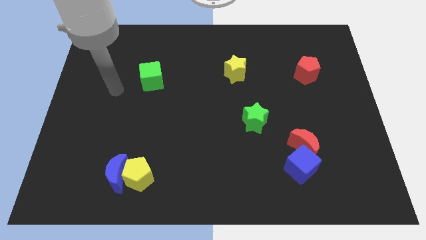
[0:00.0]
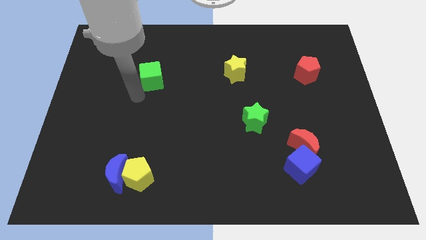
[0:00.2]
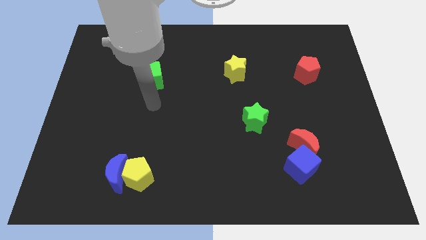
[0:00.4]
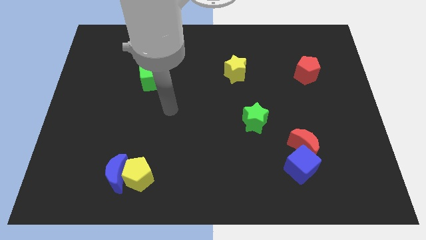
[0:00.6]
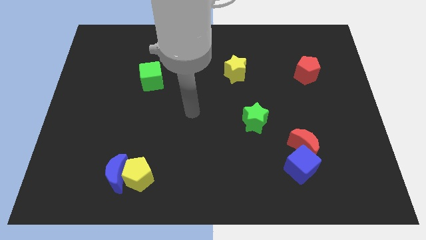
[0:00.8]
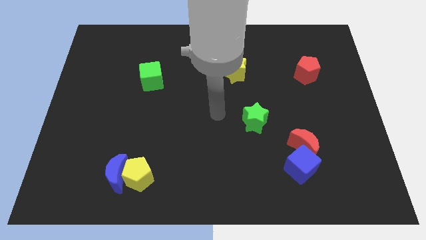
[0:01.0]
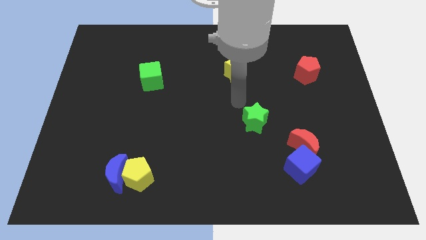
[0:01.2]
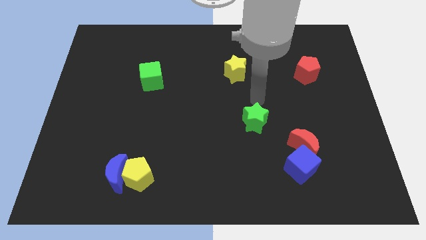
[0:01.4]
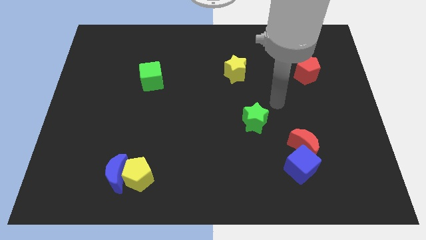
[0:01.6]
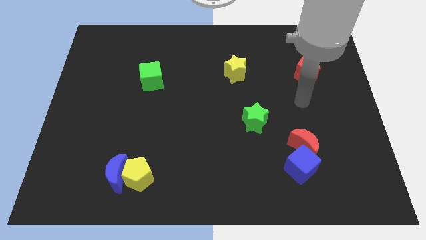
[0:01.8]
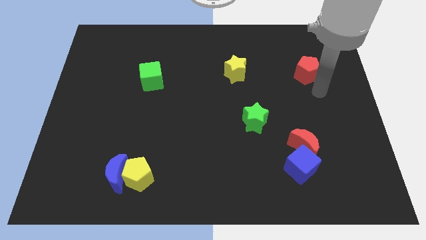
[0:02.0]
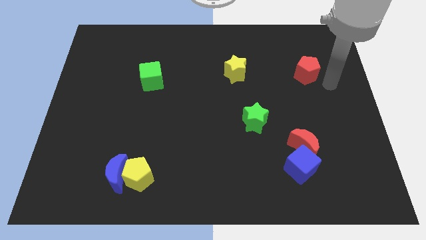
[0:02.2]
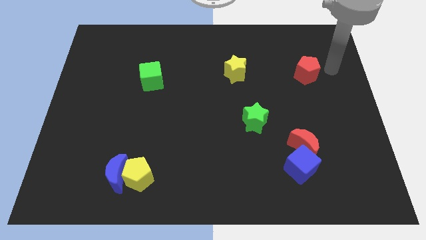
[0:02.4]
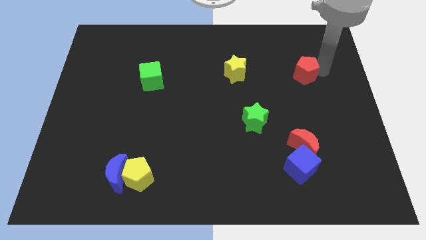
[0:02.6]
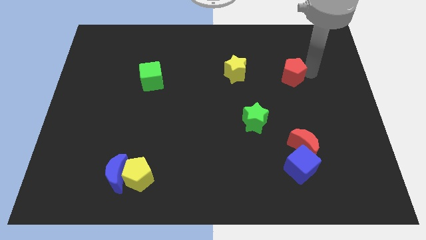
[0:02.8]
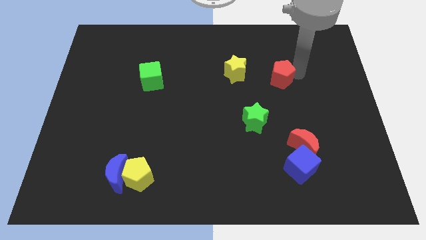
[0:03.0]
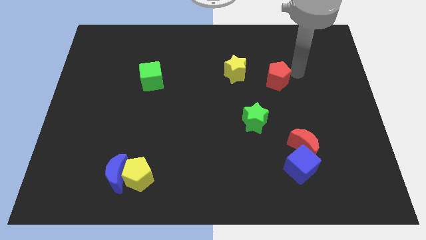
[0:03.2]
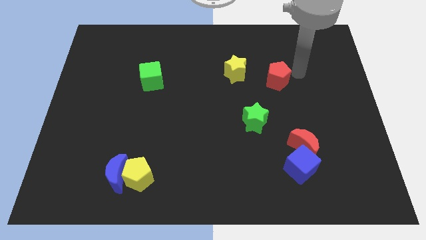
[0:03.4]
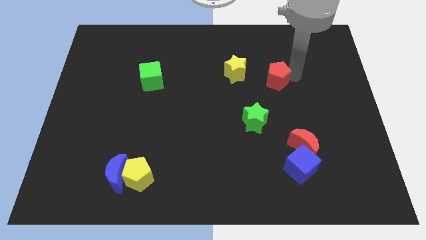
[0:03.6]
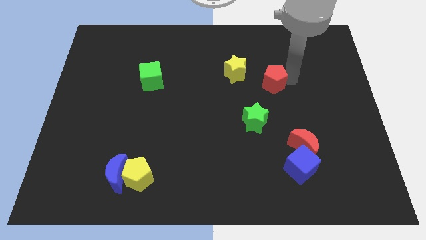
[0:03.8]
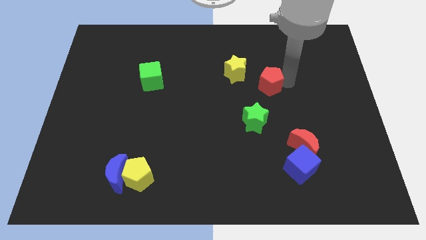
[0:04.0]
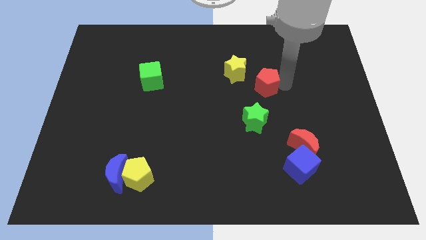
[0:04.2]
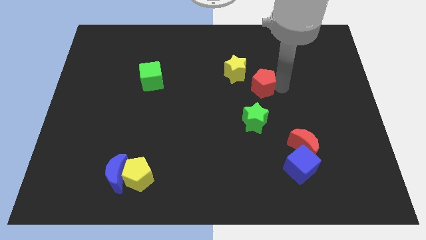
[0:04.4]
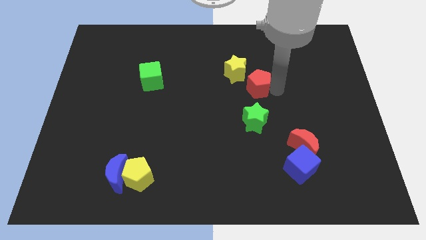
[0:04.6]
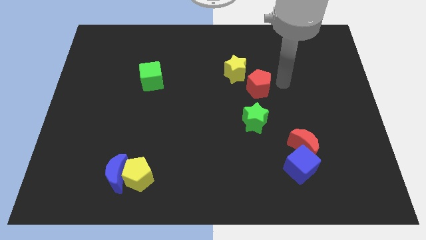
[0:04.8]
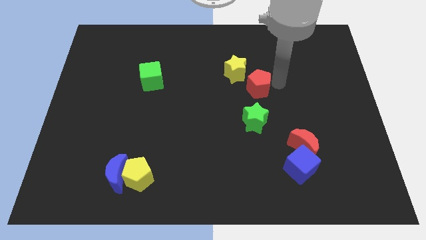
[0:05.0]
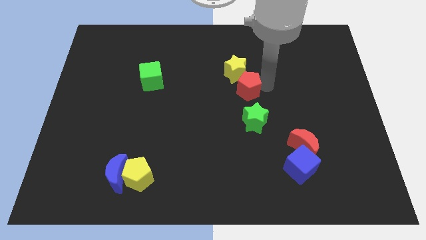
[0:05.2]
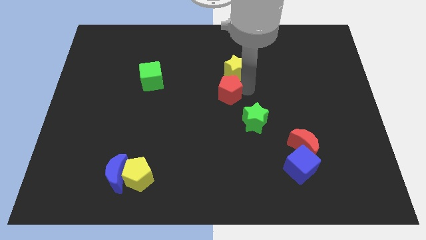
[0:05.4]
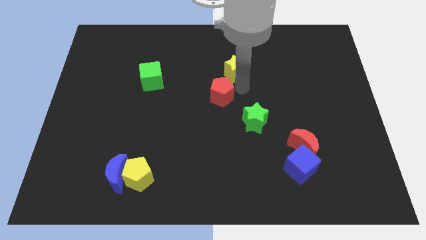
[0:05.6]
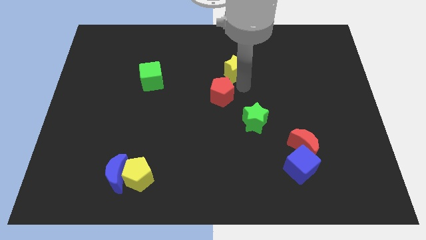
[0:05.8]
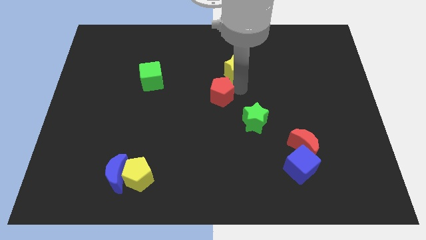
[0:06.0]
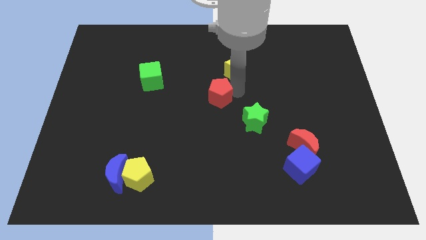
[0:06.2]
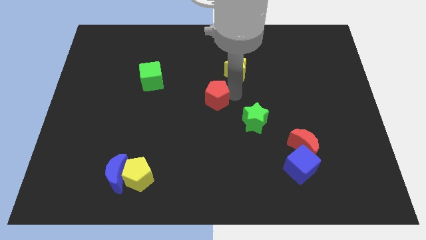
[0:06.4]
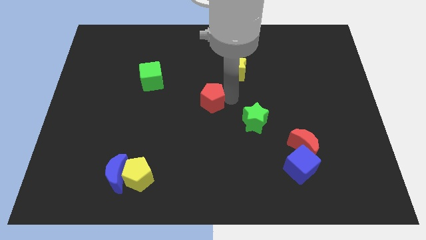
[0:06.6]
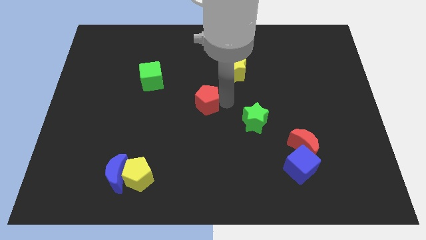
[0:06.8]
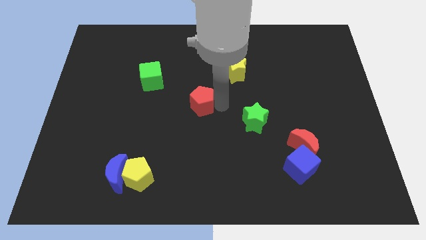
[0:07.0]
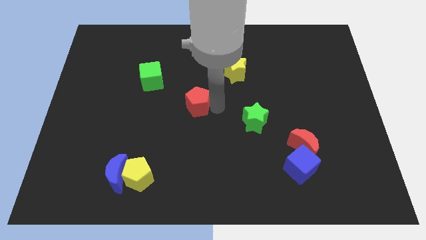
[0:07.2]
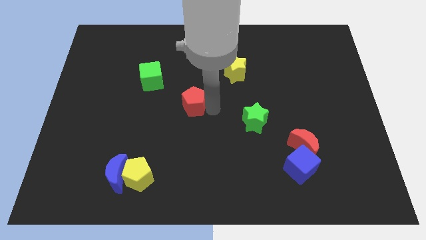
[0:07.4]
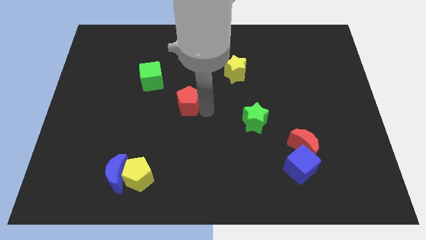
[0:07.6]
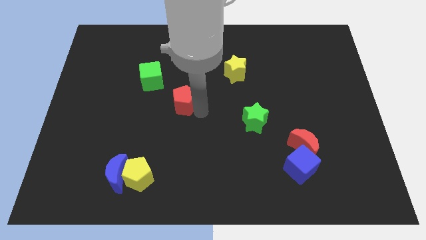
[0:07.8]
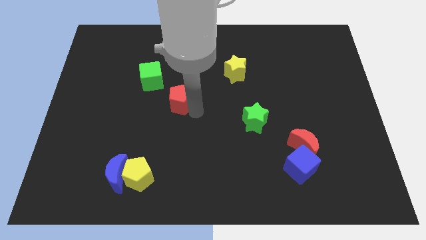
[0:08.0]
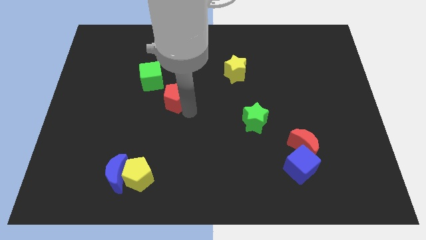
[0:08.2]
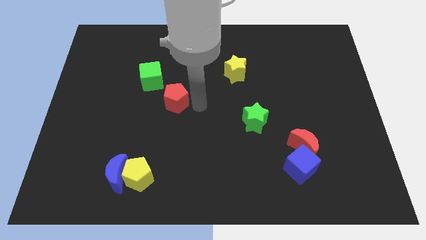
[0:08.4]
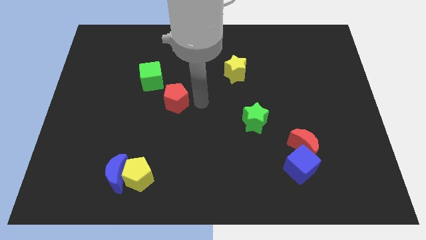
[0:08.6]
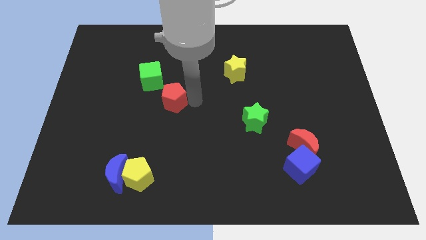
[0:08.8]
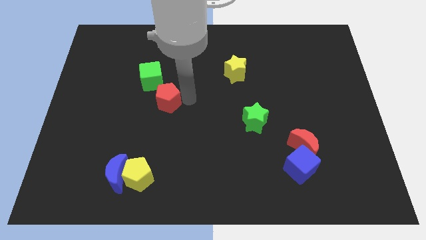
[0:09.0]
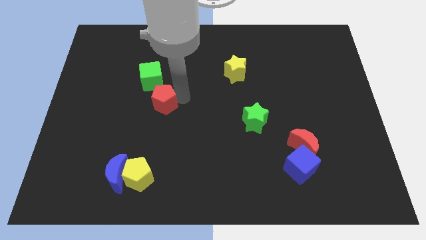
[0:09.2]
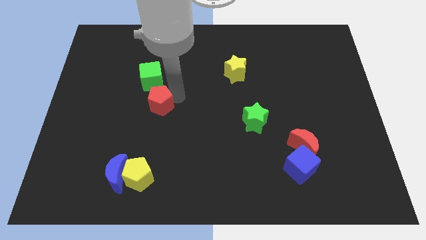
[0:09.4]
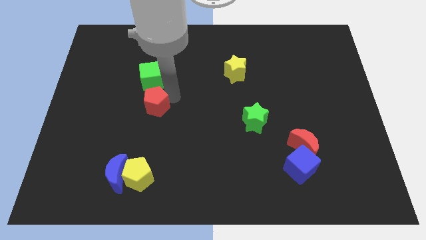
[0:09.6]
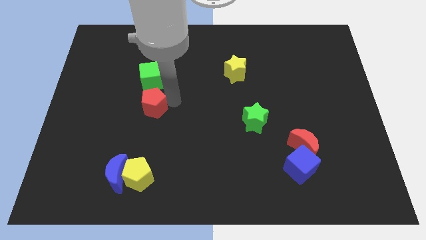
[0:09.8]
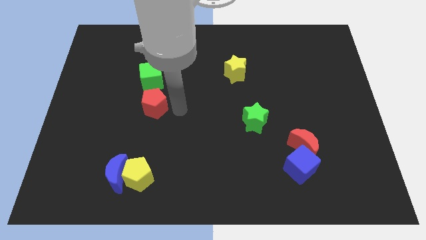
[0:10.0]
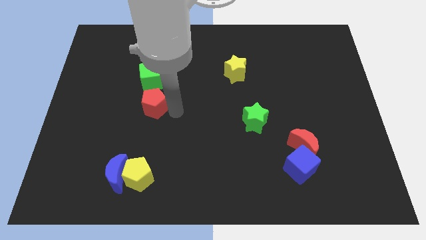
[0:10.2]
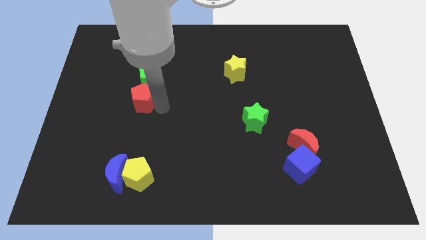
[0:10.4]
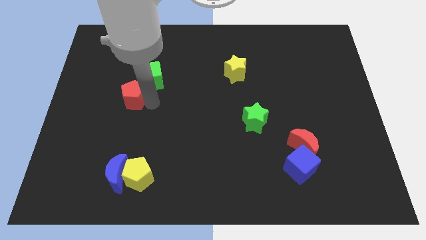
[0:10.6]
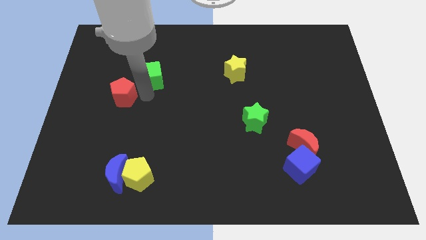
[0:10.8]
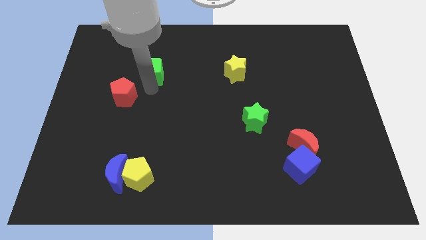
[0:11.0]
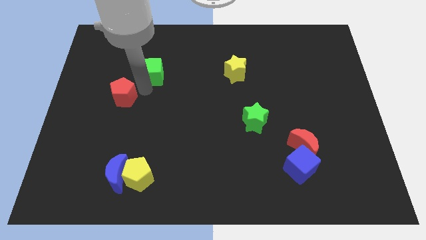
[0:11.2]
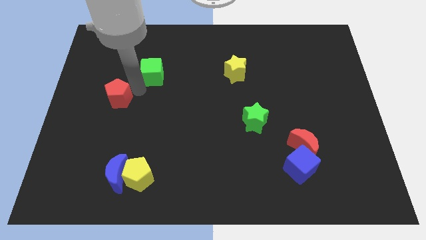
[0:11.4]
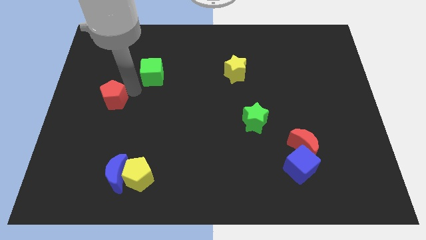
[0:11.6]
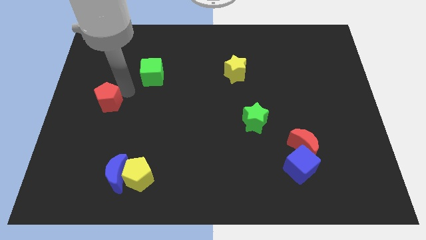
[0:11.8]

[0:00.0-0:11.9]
slide the red pentagon to the left side of the board

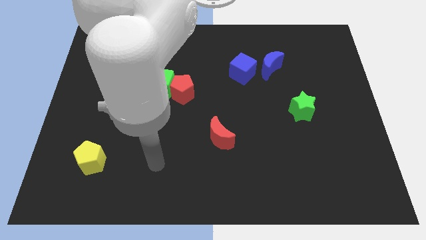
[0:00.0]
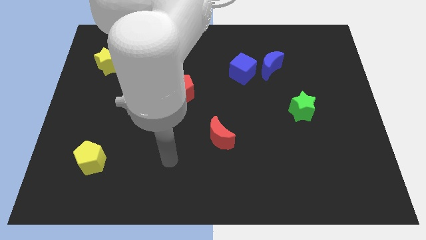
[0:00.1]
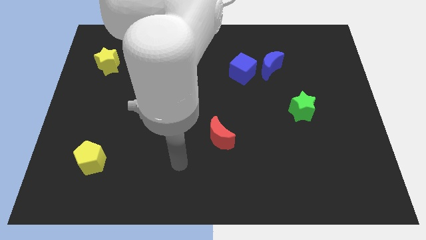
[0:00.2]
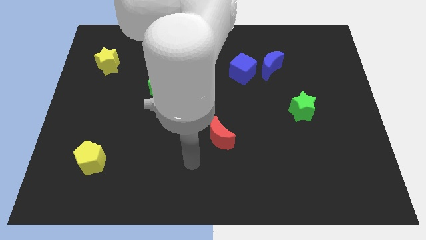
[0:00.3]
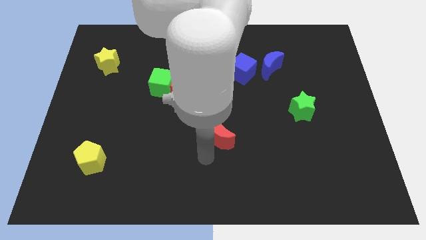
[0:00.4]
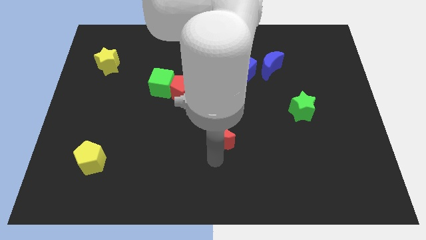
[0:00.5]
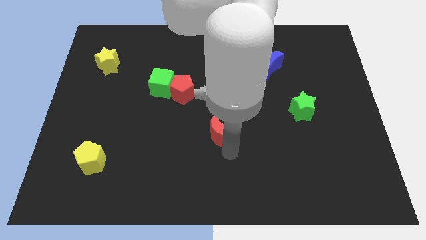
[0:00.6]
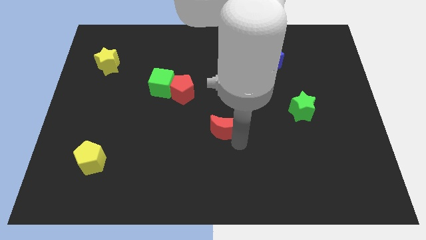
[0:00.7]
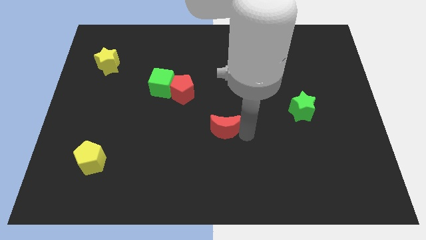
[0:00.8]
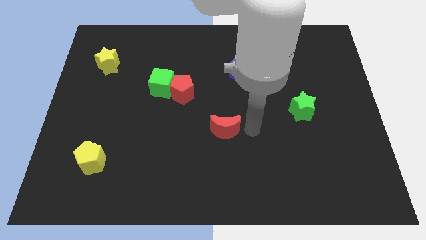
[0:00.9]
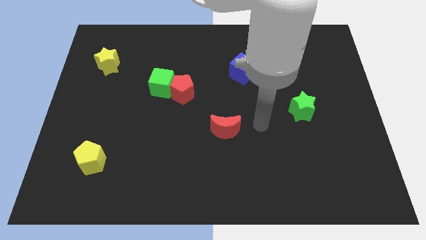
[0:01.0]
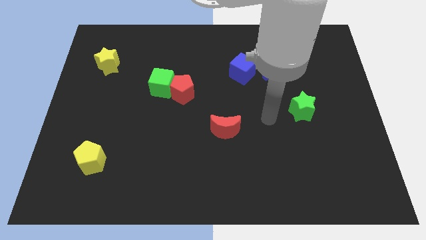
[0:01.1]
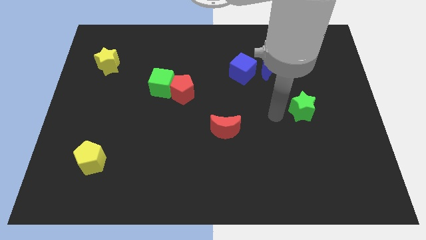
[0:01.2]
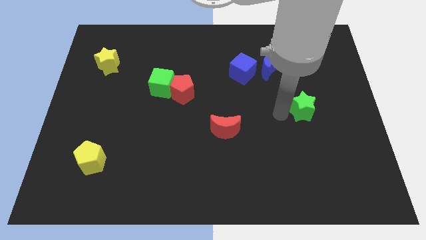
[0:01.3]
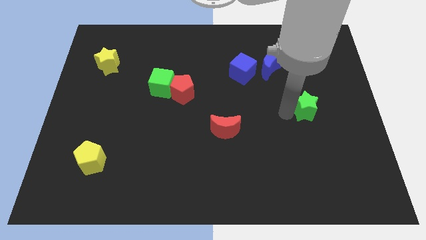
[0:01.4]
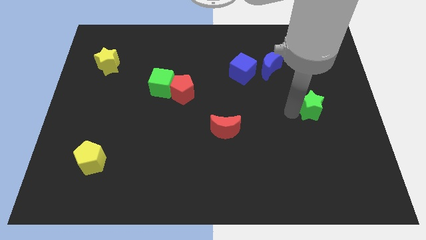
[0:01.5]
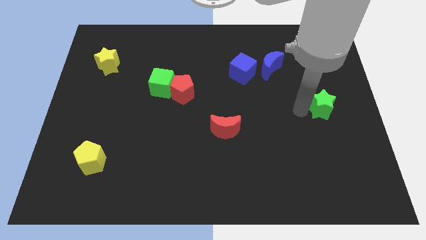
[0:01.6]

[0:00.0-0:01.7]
slide the green star to the center right
